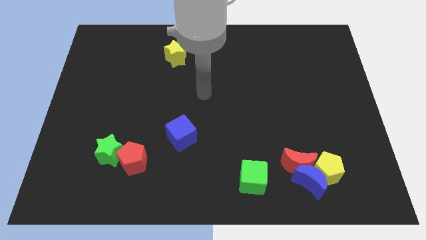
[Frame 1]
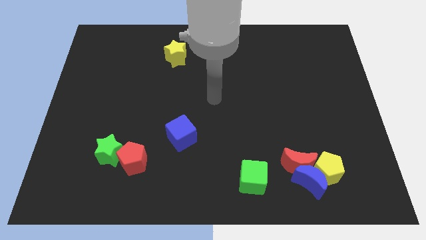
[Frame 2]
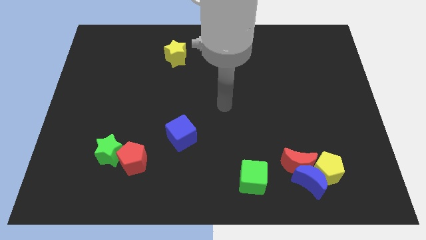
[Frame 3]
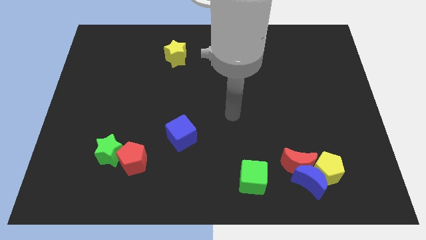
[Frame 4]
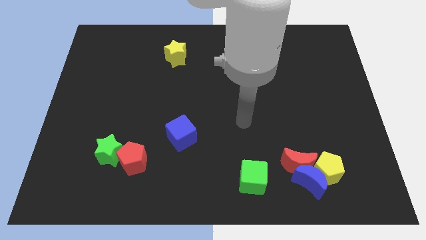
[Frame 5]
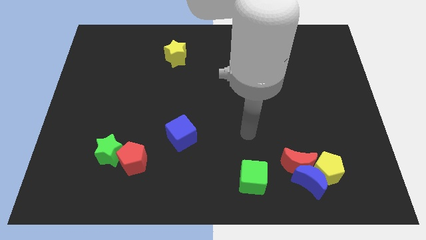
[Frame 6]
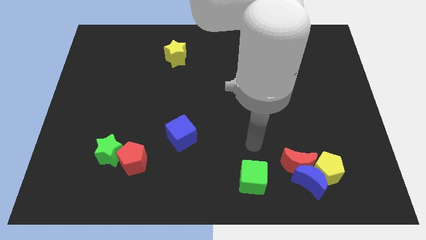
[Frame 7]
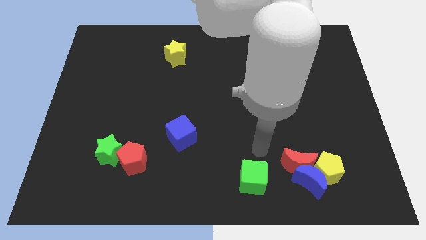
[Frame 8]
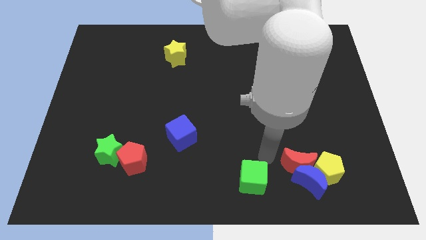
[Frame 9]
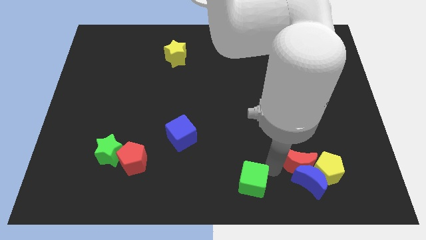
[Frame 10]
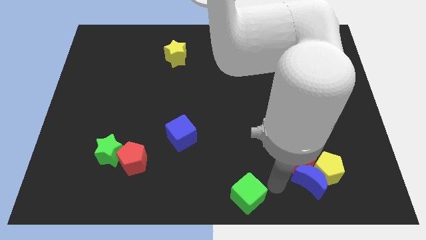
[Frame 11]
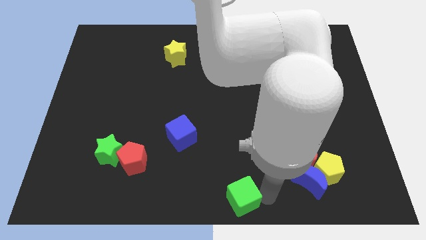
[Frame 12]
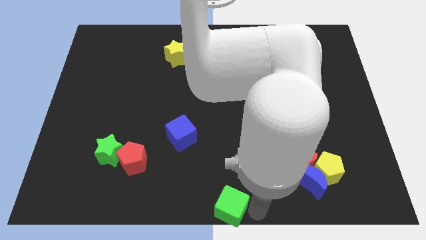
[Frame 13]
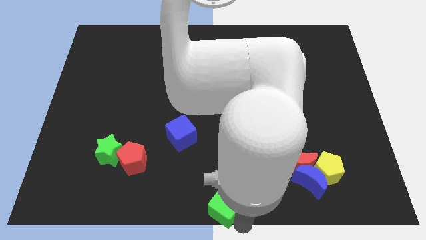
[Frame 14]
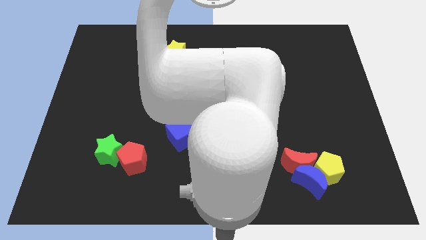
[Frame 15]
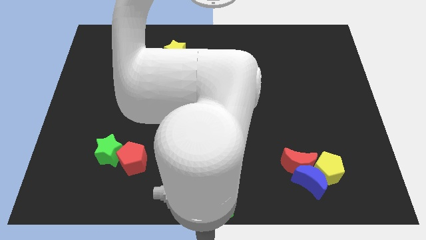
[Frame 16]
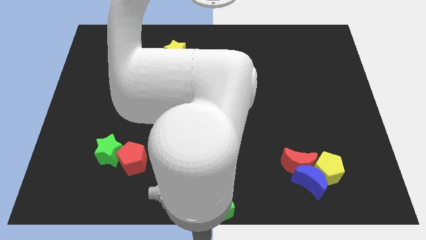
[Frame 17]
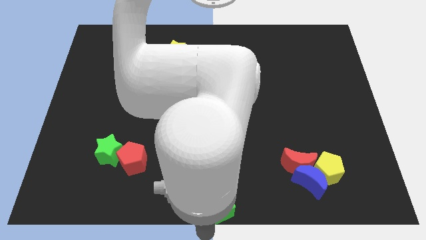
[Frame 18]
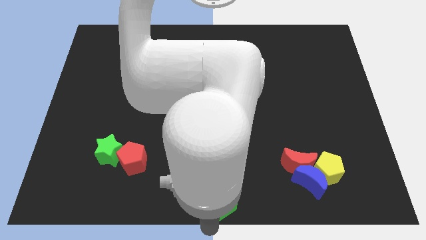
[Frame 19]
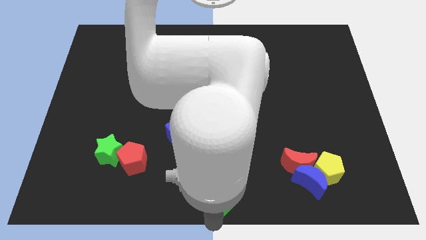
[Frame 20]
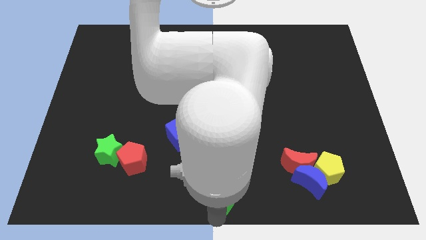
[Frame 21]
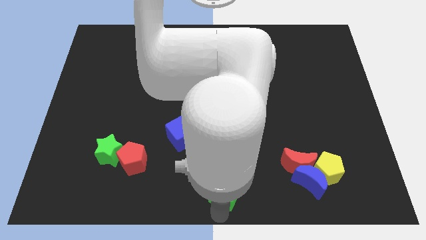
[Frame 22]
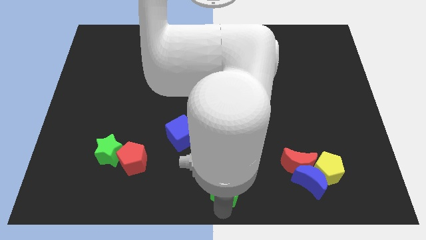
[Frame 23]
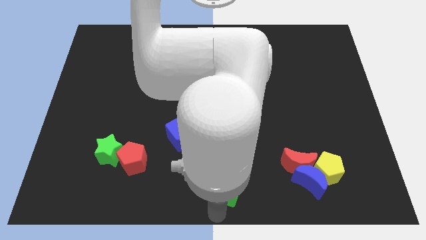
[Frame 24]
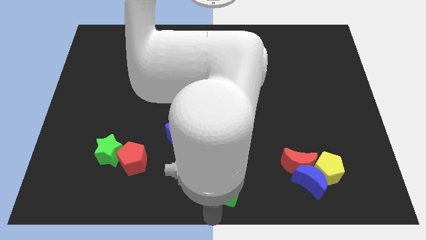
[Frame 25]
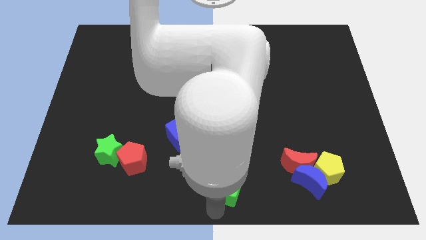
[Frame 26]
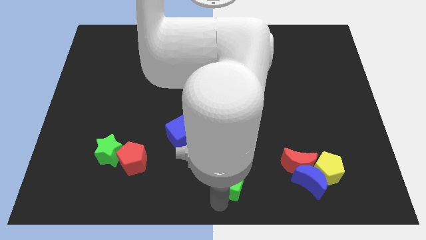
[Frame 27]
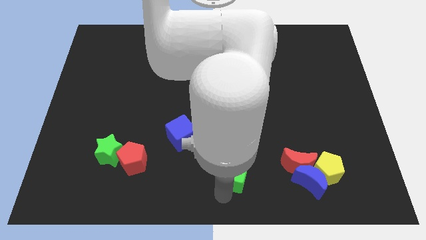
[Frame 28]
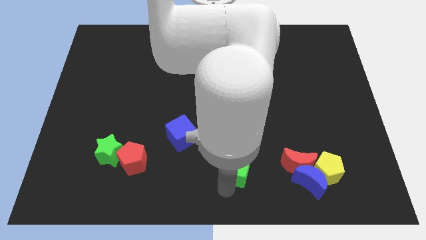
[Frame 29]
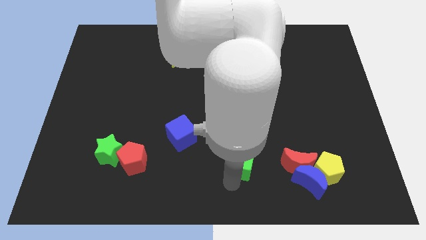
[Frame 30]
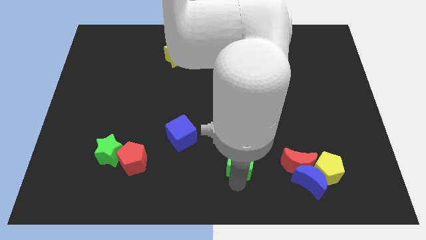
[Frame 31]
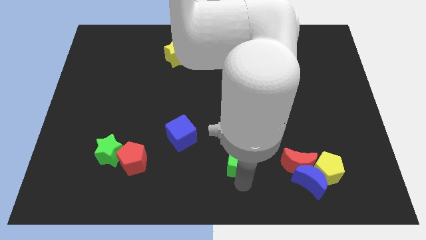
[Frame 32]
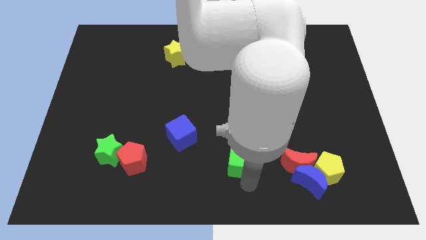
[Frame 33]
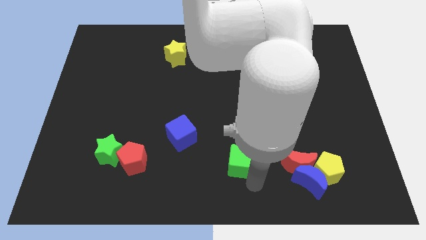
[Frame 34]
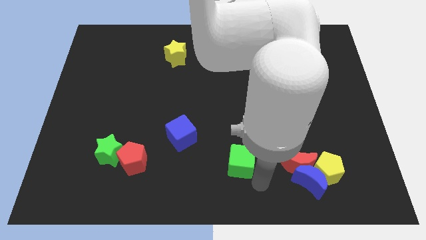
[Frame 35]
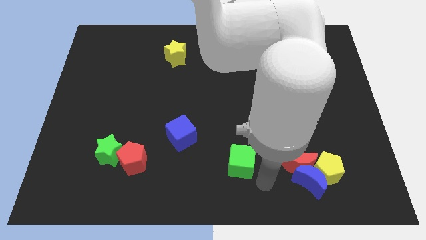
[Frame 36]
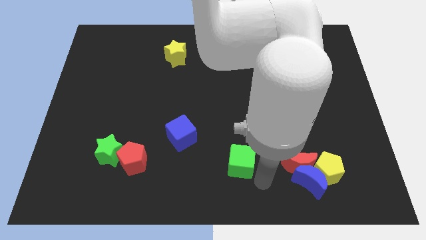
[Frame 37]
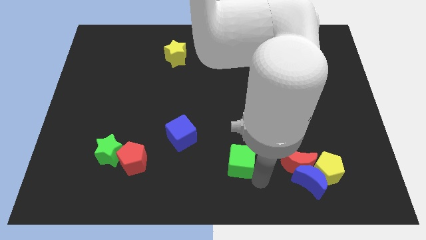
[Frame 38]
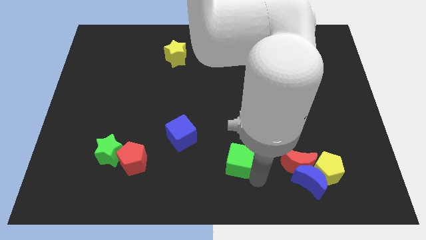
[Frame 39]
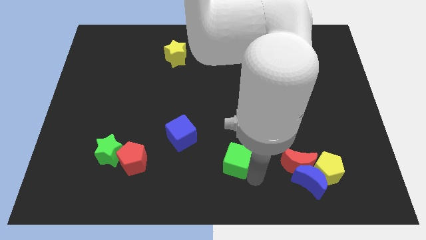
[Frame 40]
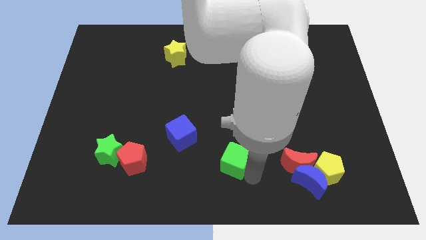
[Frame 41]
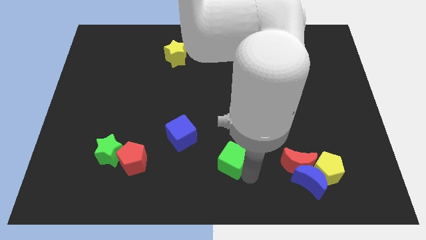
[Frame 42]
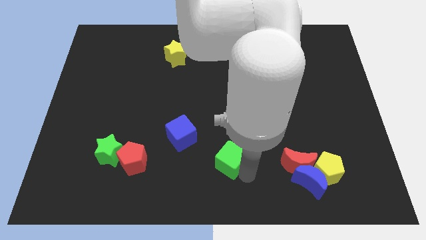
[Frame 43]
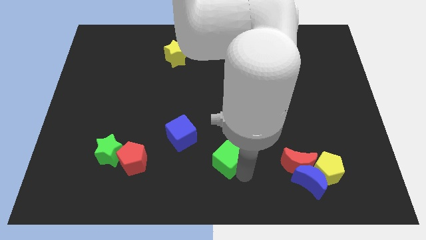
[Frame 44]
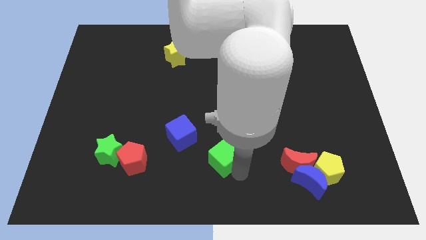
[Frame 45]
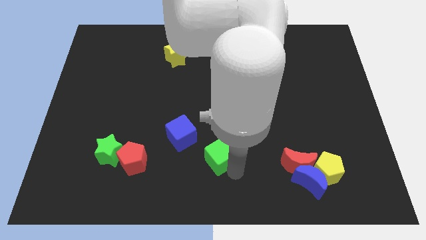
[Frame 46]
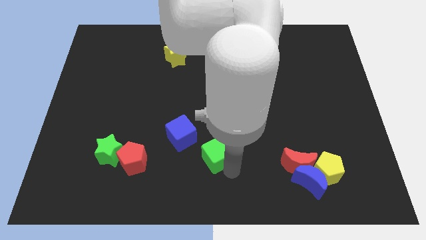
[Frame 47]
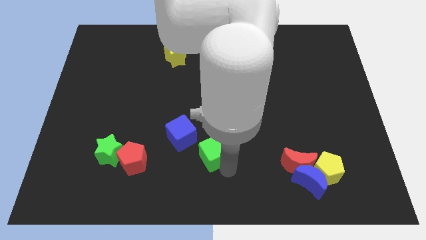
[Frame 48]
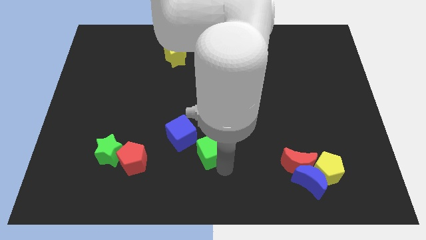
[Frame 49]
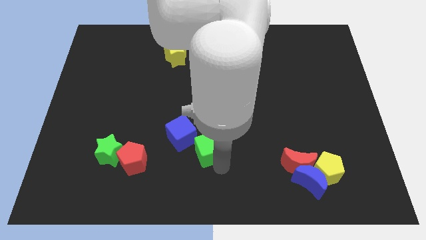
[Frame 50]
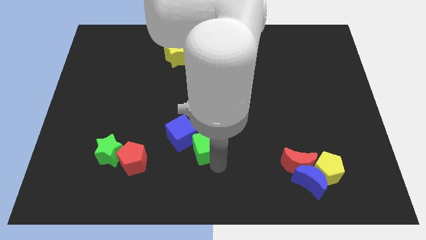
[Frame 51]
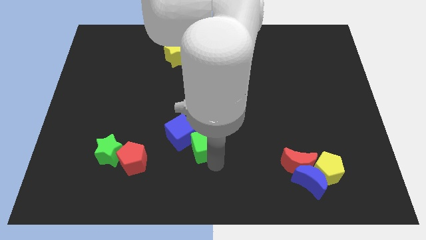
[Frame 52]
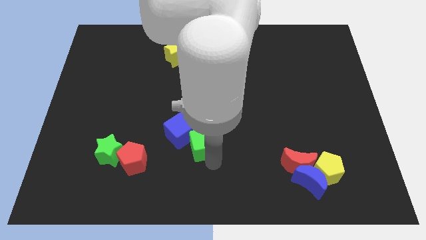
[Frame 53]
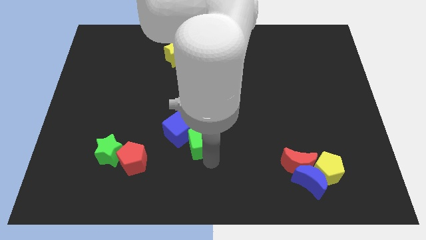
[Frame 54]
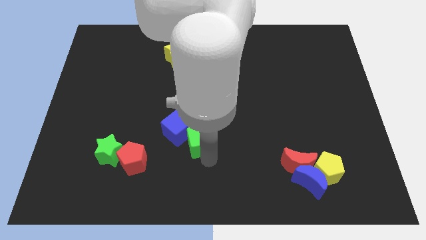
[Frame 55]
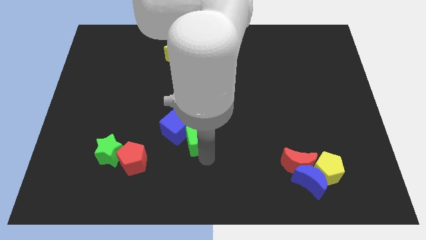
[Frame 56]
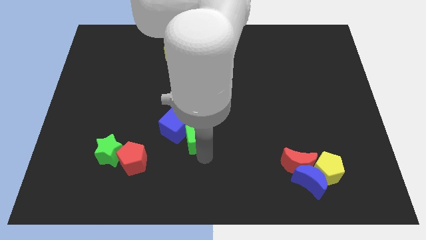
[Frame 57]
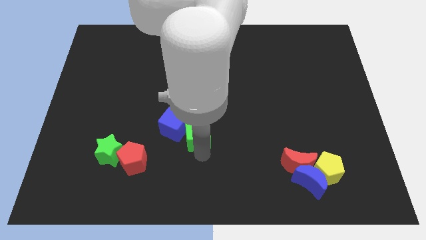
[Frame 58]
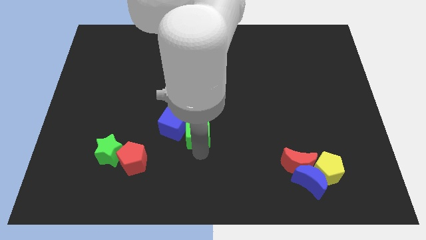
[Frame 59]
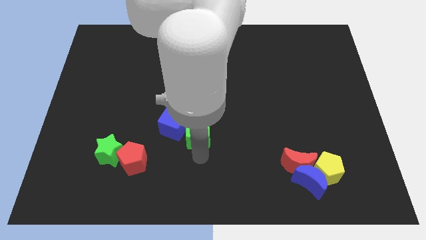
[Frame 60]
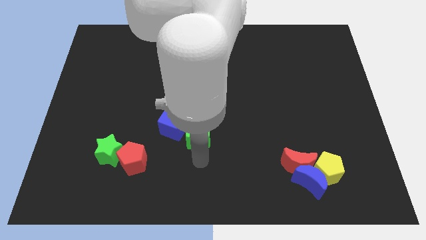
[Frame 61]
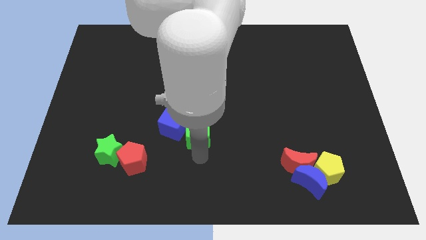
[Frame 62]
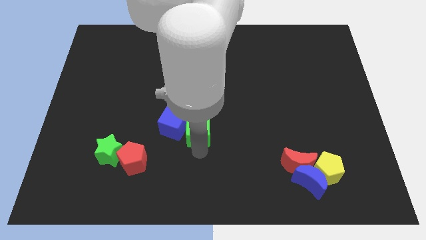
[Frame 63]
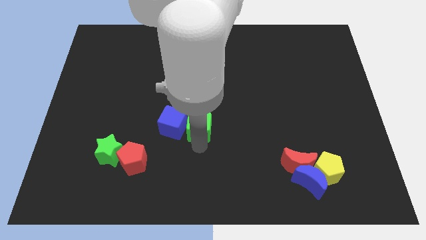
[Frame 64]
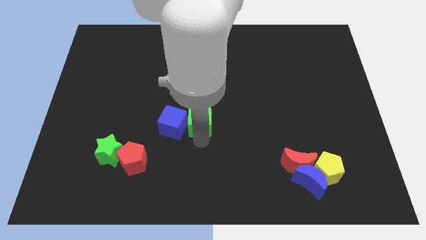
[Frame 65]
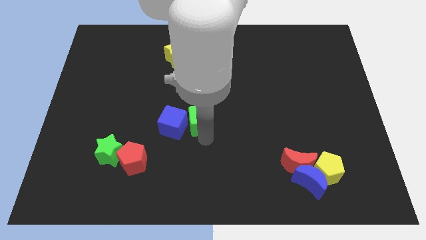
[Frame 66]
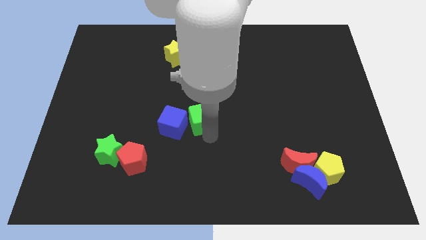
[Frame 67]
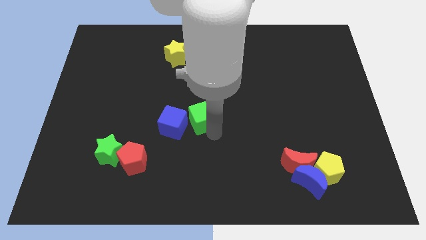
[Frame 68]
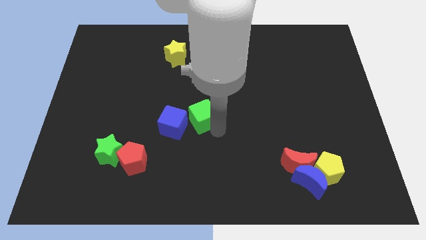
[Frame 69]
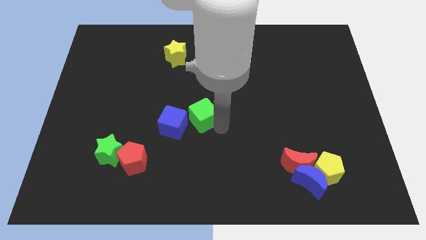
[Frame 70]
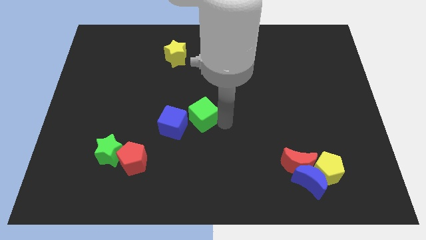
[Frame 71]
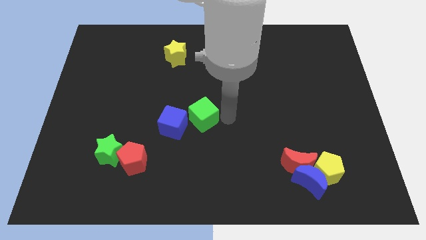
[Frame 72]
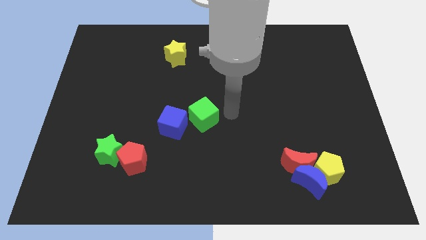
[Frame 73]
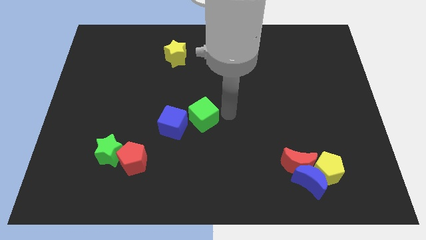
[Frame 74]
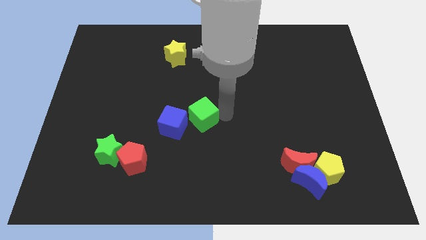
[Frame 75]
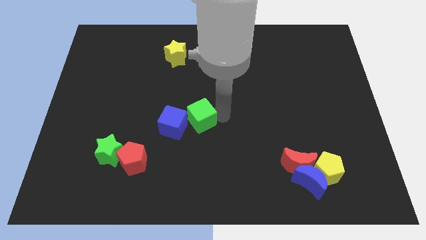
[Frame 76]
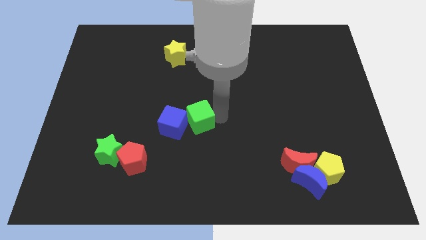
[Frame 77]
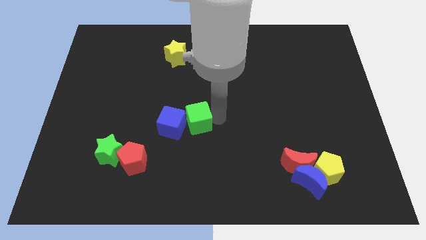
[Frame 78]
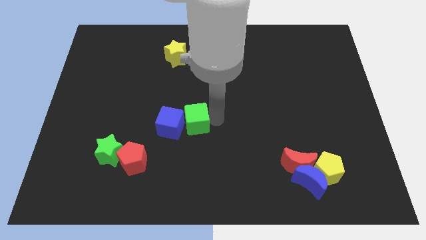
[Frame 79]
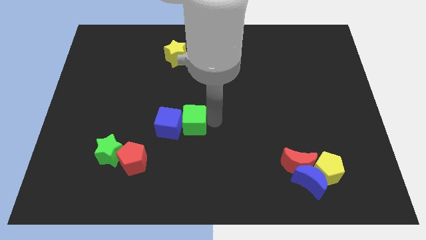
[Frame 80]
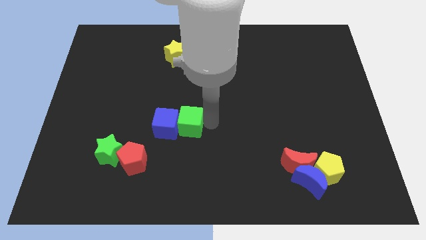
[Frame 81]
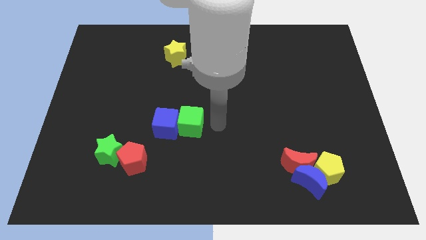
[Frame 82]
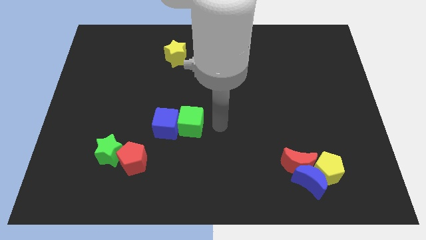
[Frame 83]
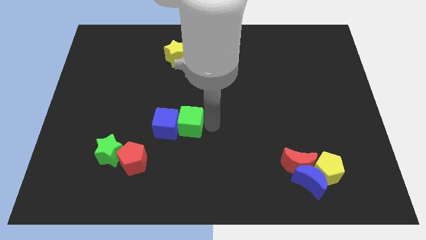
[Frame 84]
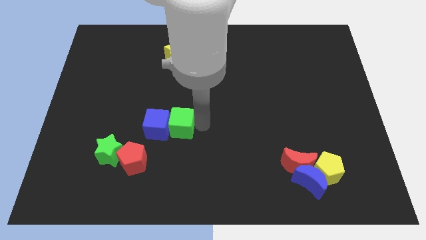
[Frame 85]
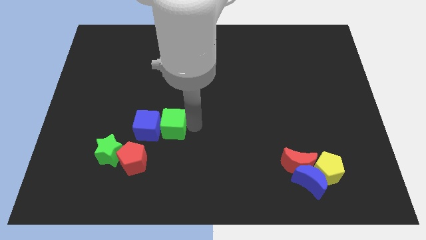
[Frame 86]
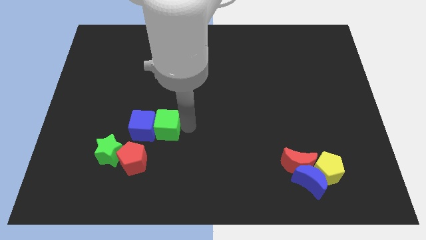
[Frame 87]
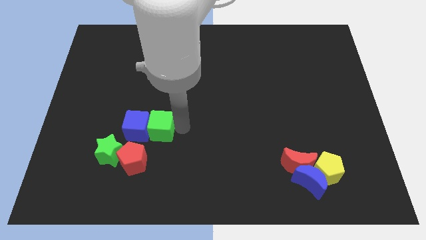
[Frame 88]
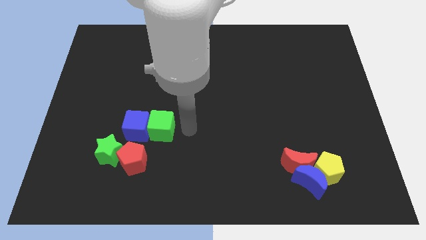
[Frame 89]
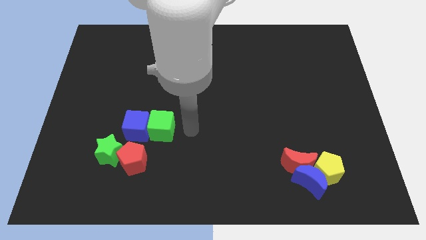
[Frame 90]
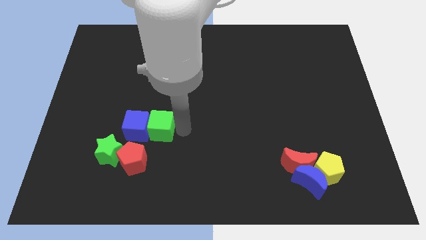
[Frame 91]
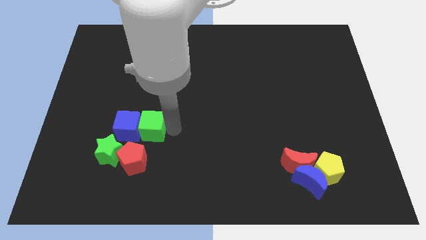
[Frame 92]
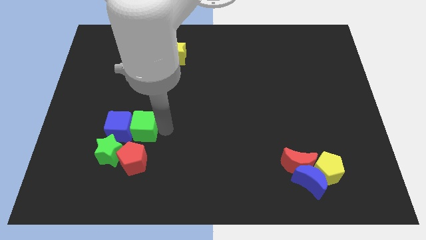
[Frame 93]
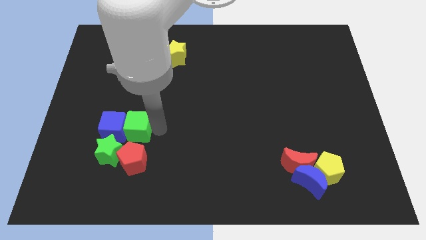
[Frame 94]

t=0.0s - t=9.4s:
move the green cube to the top of the green star
